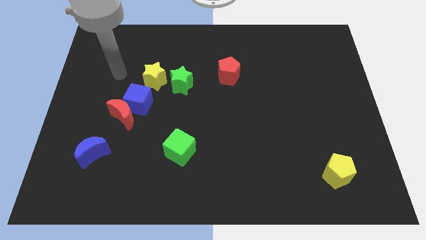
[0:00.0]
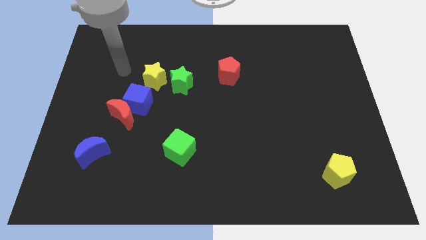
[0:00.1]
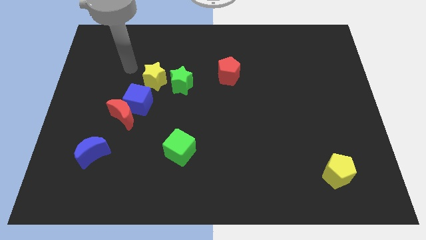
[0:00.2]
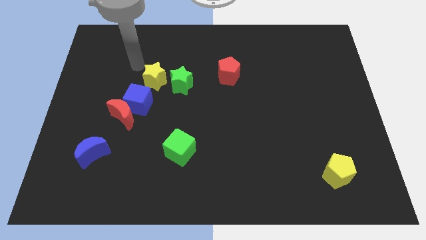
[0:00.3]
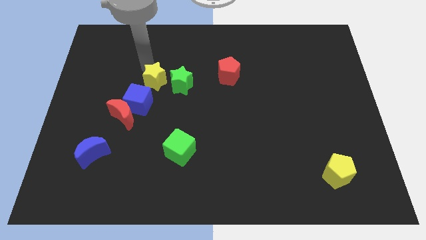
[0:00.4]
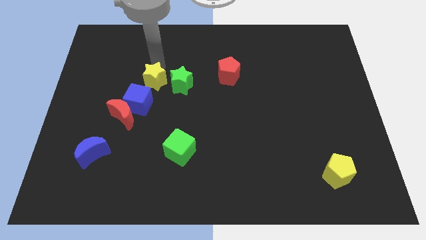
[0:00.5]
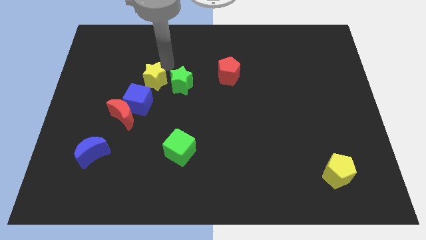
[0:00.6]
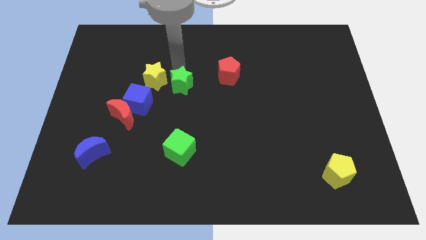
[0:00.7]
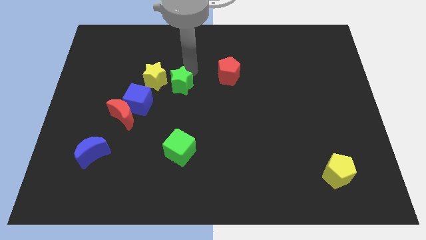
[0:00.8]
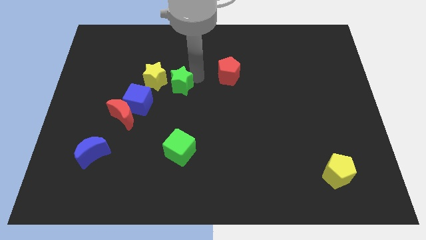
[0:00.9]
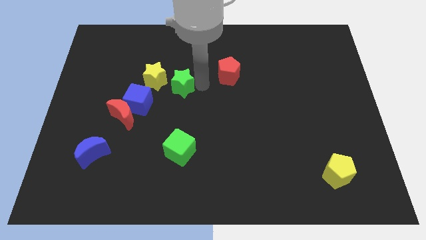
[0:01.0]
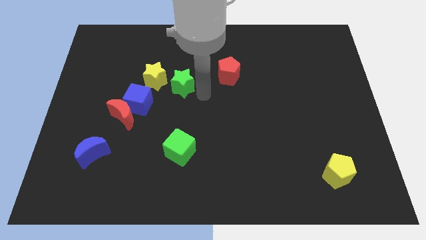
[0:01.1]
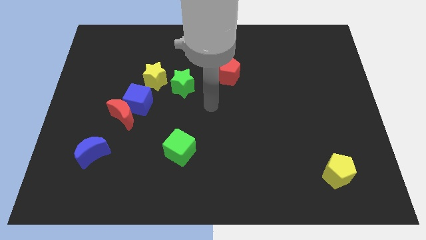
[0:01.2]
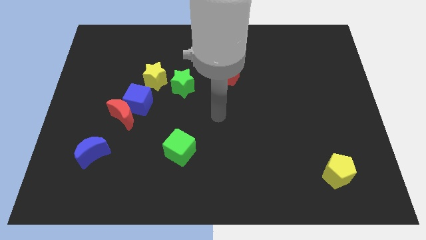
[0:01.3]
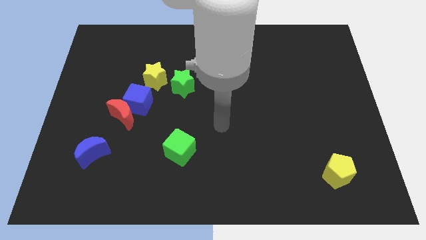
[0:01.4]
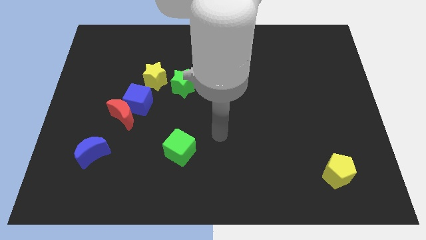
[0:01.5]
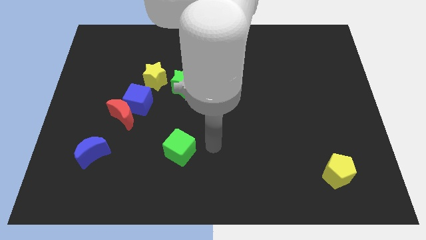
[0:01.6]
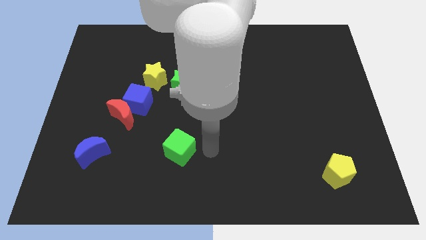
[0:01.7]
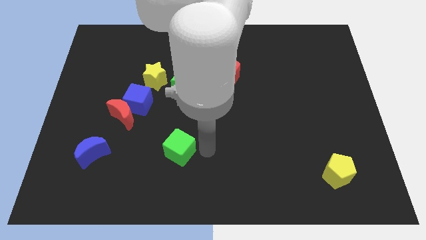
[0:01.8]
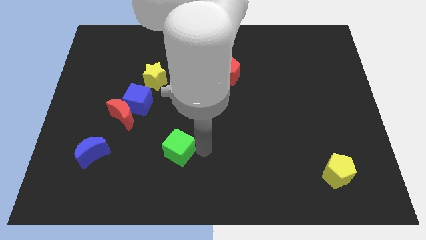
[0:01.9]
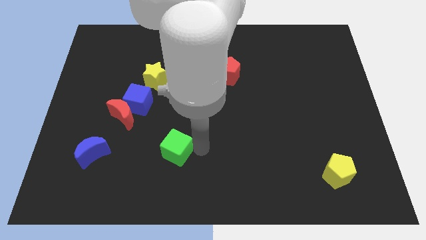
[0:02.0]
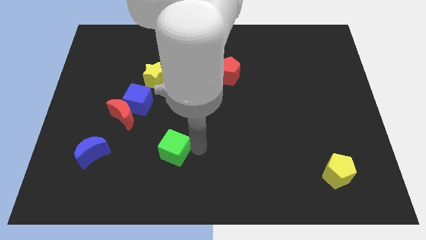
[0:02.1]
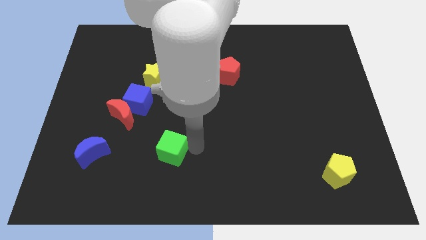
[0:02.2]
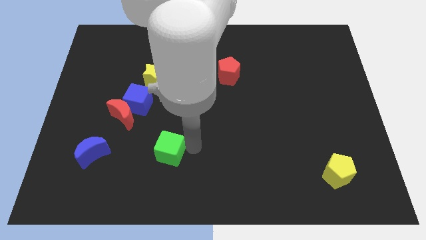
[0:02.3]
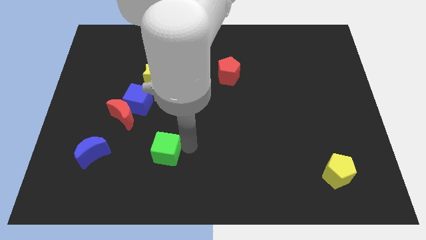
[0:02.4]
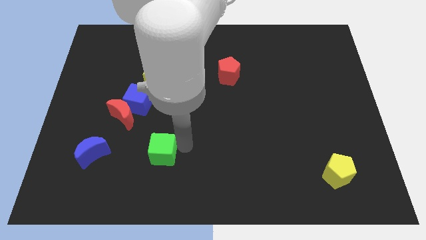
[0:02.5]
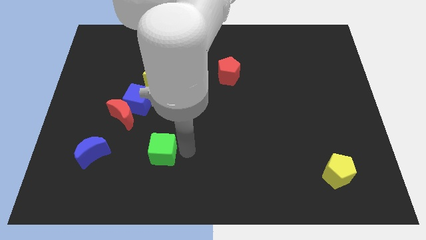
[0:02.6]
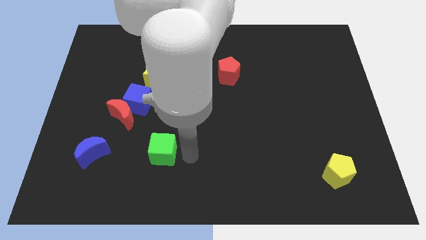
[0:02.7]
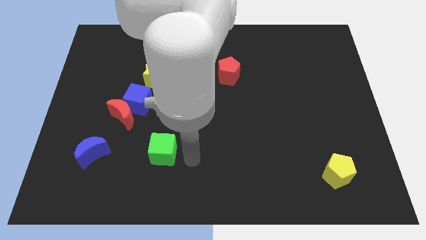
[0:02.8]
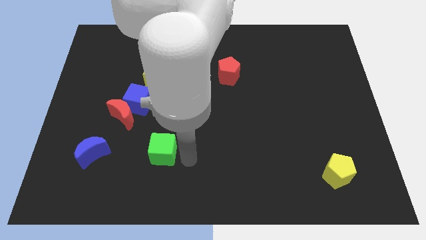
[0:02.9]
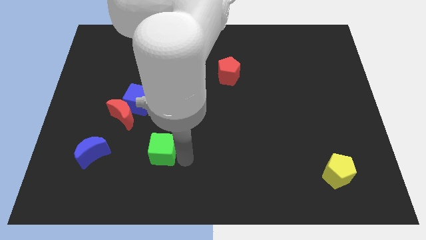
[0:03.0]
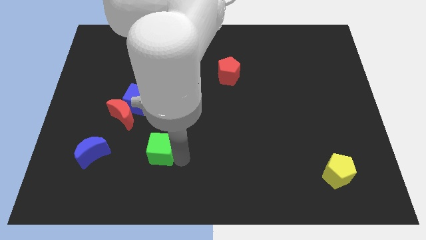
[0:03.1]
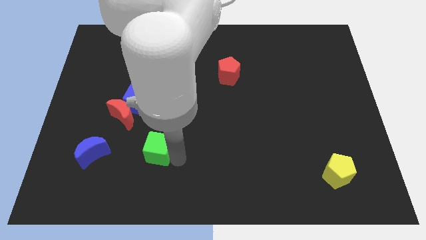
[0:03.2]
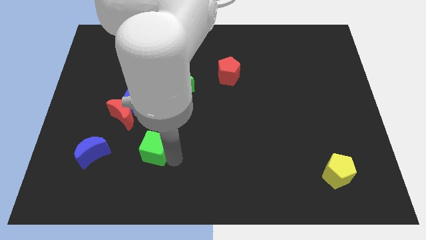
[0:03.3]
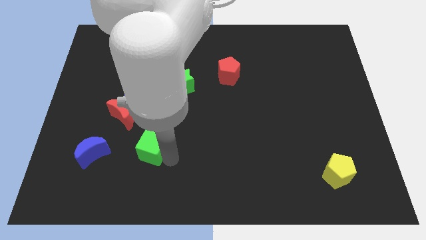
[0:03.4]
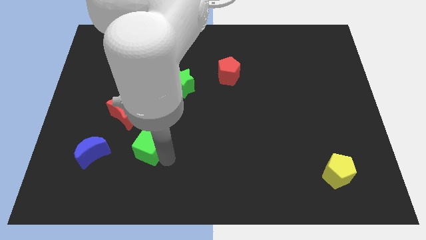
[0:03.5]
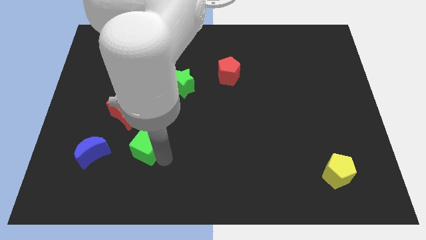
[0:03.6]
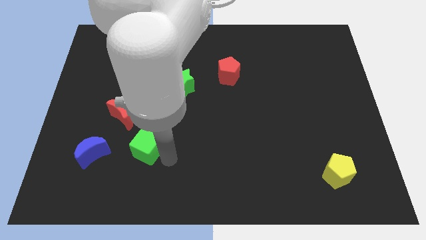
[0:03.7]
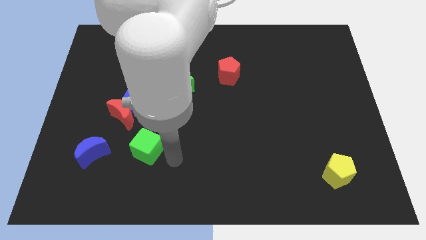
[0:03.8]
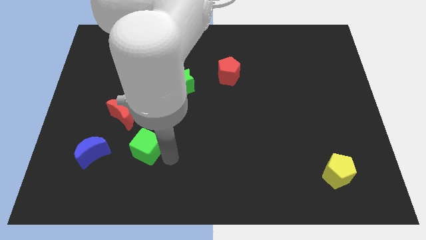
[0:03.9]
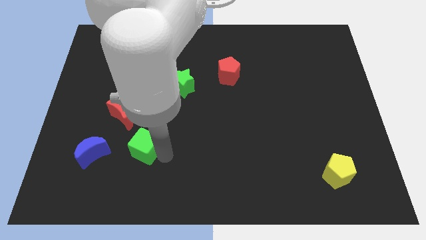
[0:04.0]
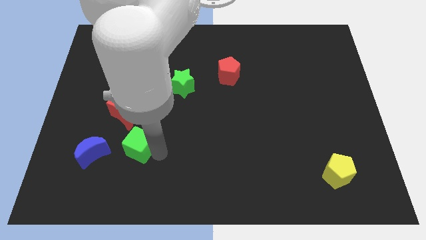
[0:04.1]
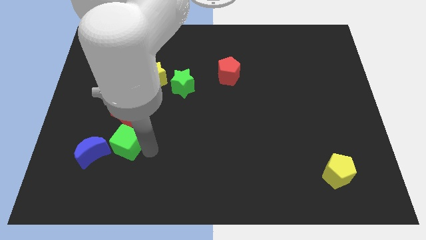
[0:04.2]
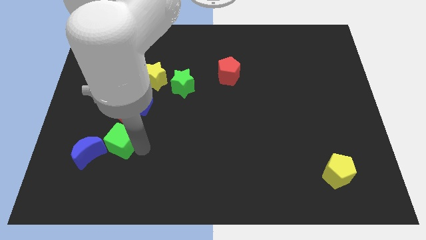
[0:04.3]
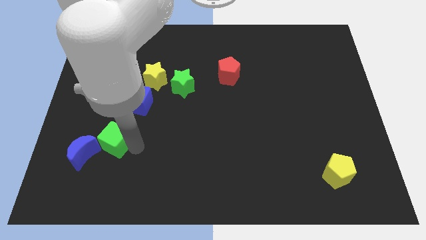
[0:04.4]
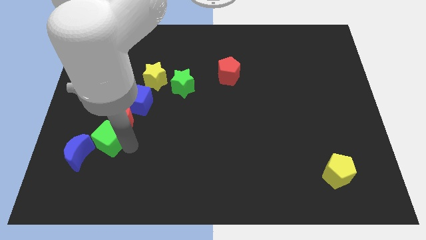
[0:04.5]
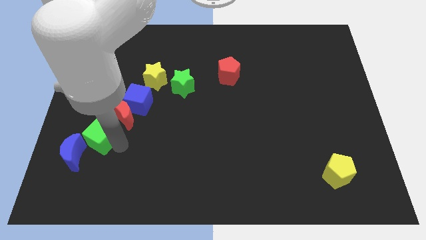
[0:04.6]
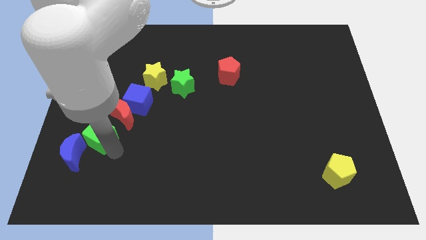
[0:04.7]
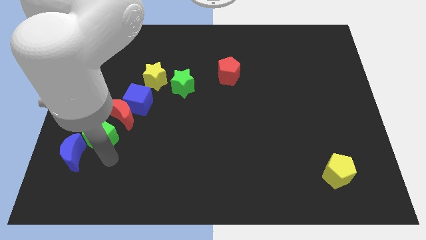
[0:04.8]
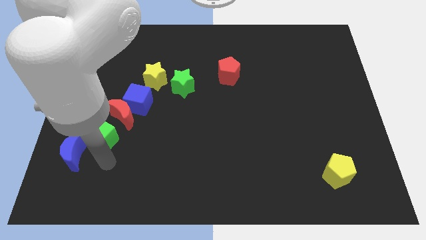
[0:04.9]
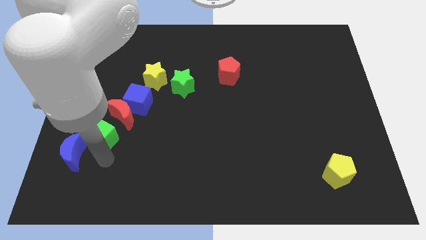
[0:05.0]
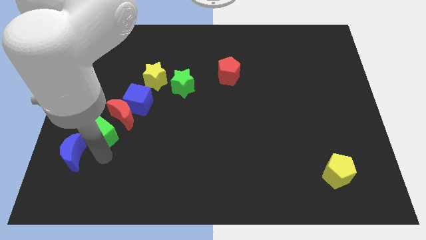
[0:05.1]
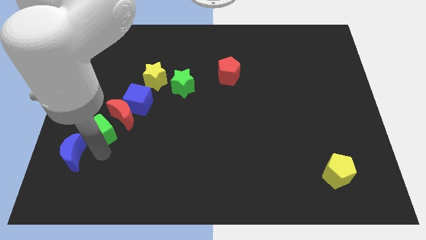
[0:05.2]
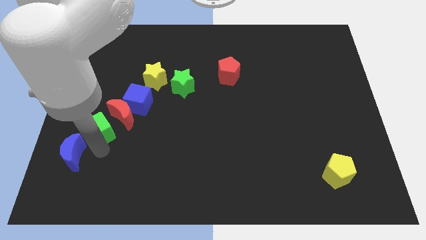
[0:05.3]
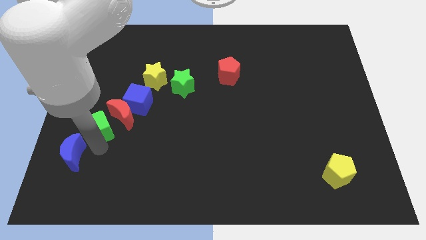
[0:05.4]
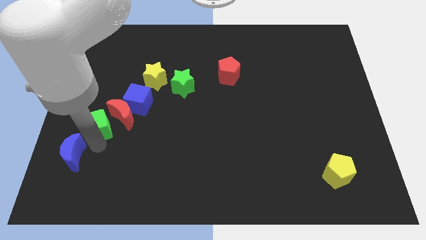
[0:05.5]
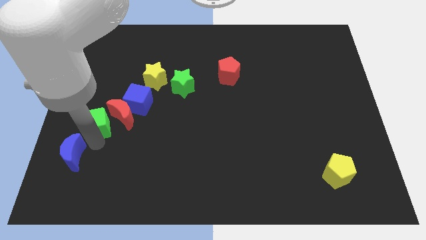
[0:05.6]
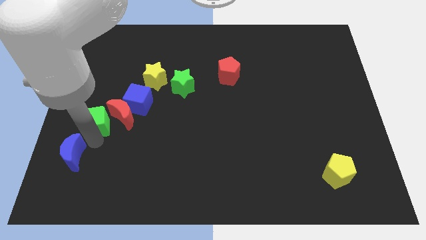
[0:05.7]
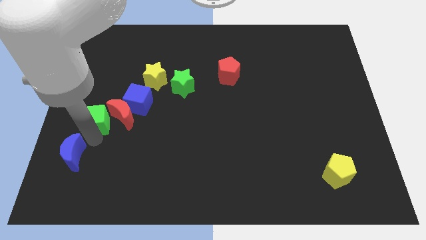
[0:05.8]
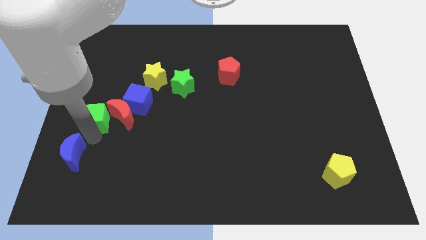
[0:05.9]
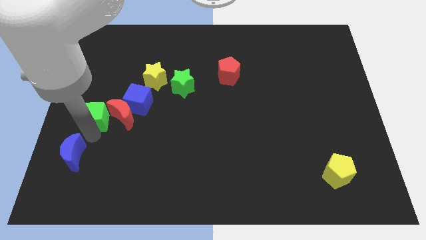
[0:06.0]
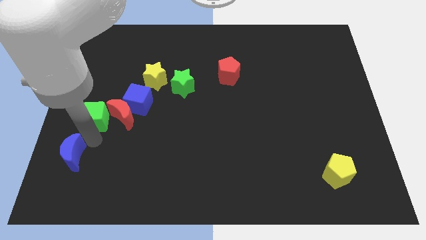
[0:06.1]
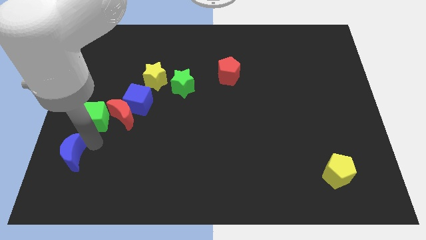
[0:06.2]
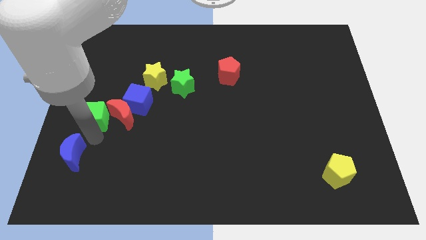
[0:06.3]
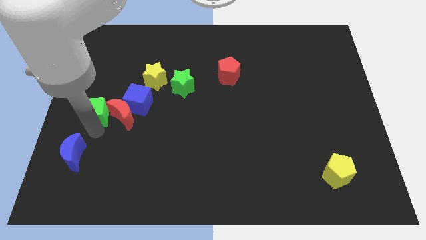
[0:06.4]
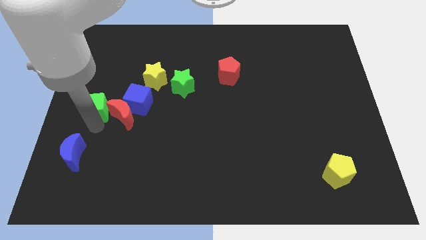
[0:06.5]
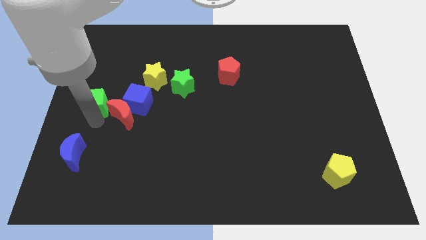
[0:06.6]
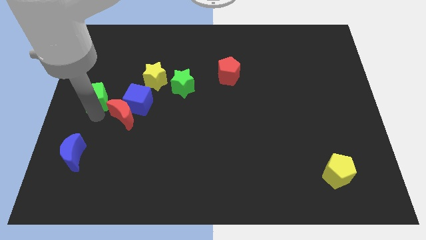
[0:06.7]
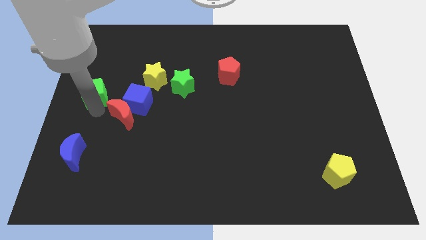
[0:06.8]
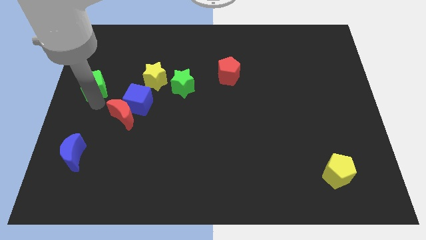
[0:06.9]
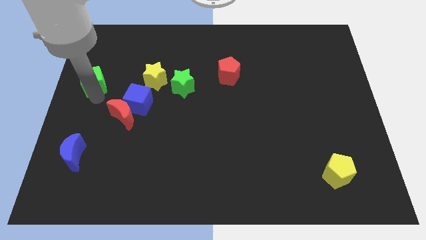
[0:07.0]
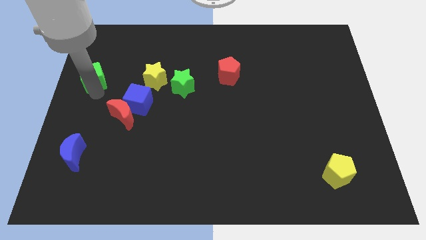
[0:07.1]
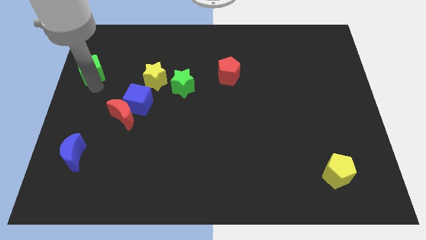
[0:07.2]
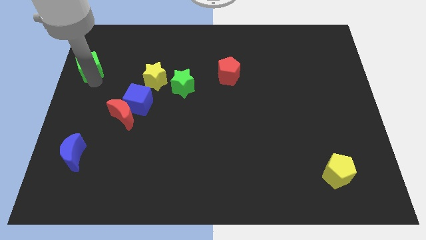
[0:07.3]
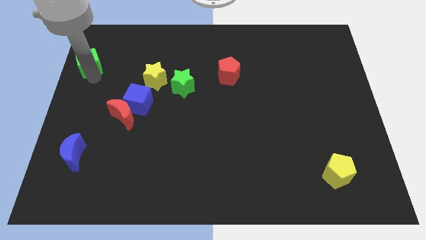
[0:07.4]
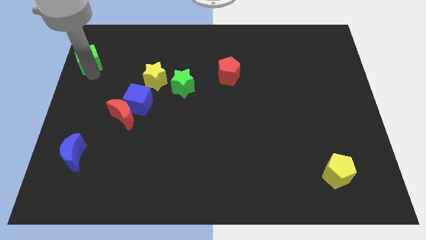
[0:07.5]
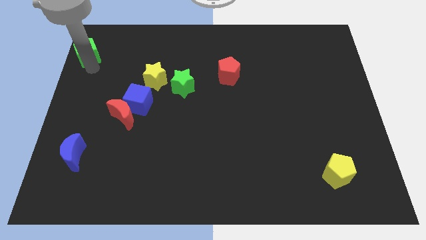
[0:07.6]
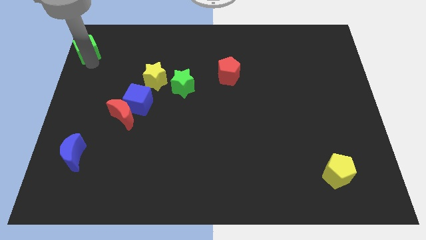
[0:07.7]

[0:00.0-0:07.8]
slide the green cube to the top left corner
